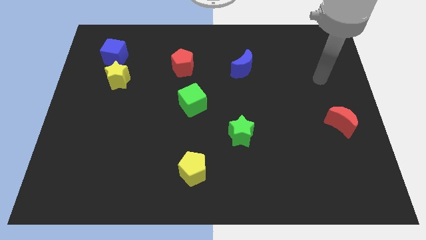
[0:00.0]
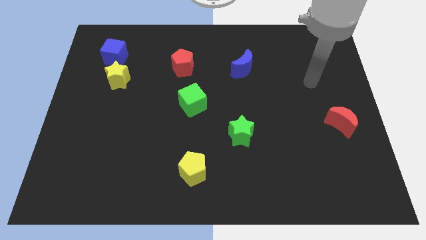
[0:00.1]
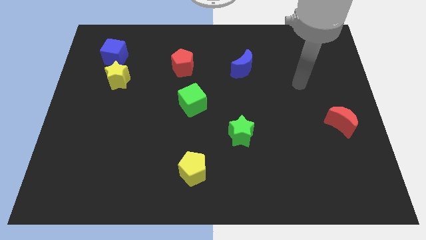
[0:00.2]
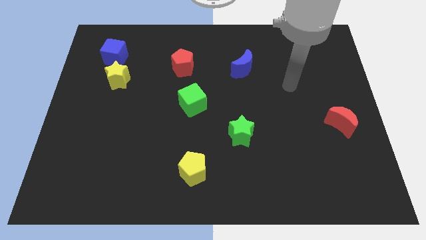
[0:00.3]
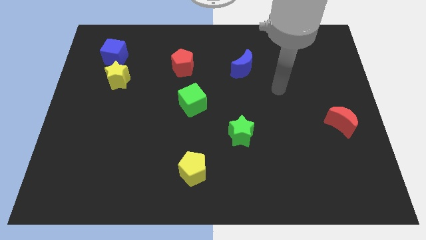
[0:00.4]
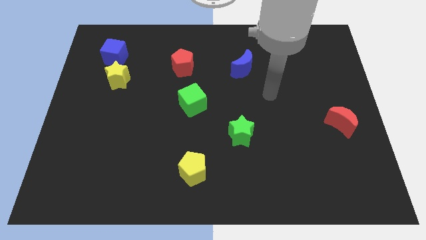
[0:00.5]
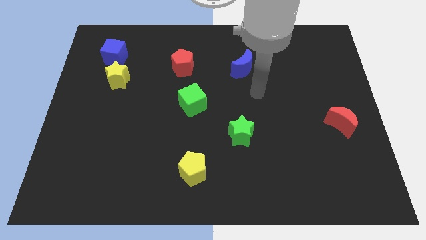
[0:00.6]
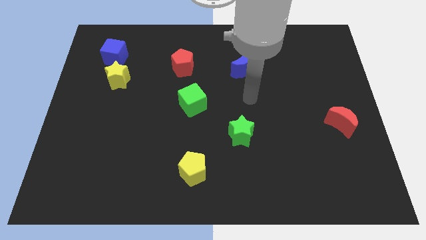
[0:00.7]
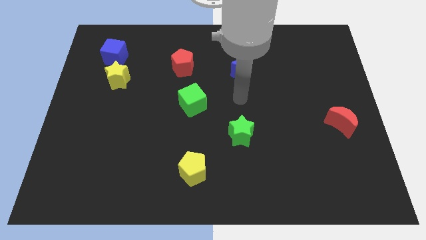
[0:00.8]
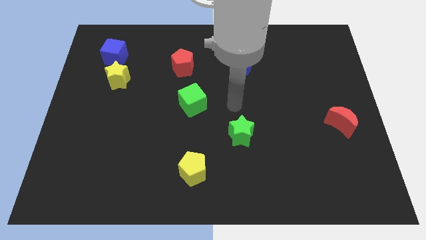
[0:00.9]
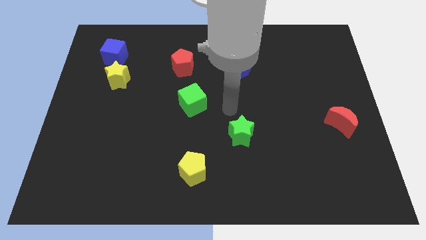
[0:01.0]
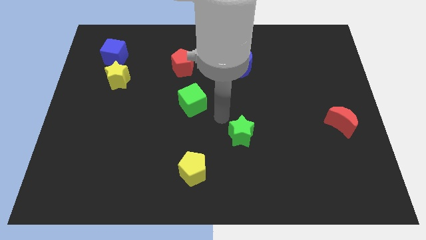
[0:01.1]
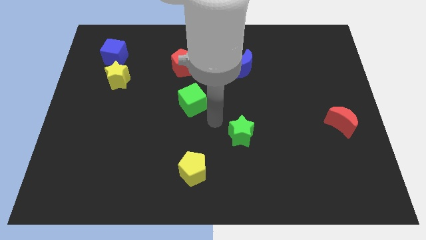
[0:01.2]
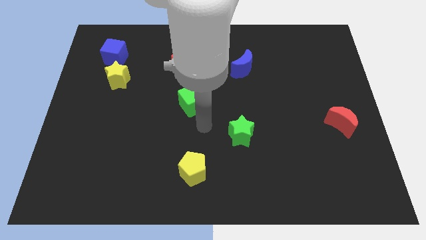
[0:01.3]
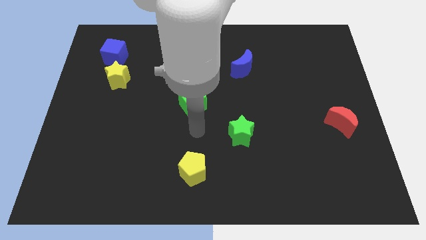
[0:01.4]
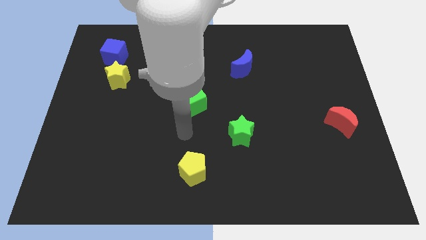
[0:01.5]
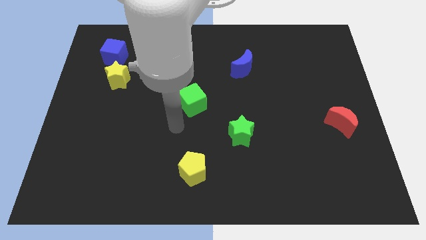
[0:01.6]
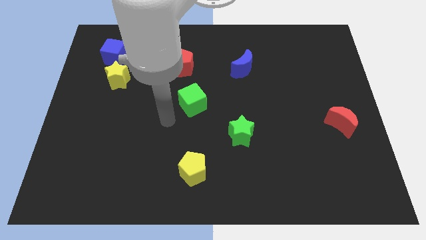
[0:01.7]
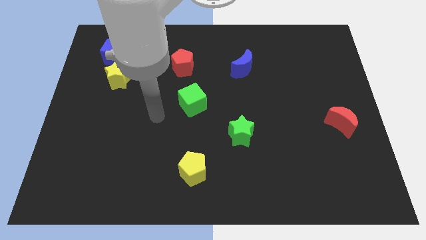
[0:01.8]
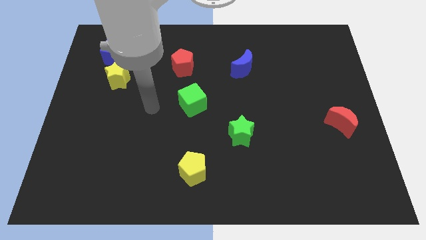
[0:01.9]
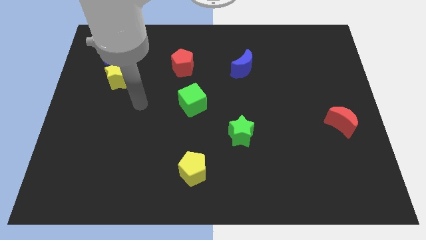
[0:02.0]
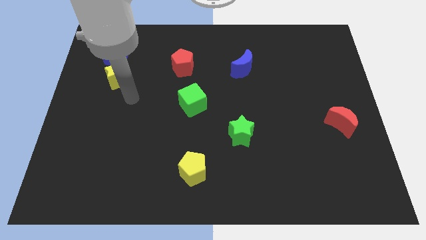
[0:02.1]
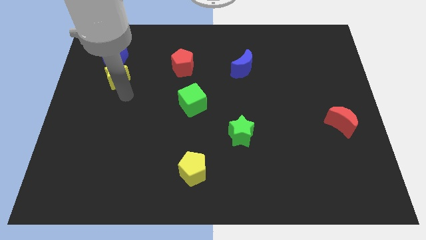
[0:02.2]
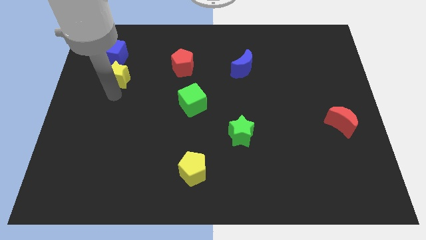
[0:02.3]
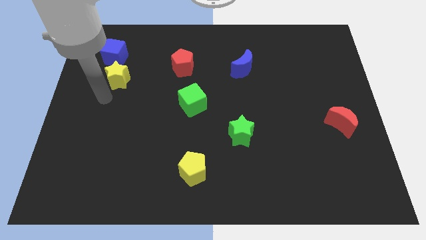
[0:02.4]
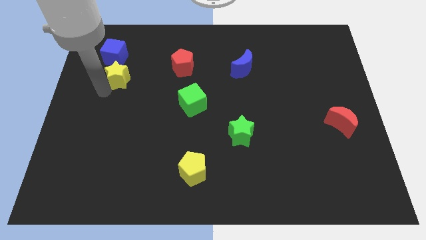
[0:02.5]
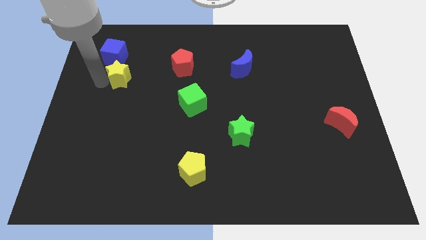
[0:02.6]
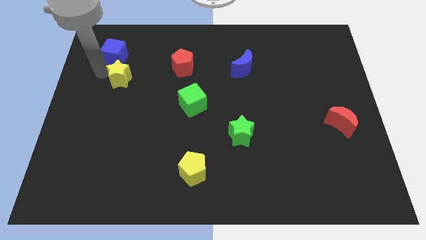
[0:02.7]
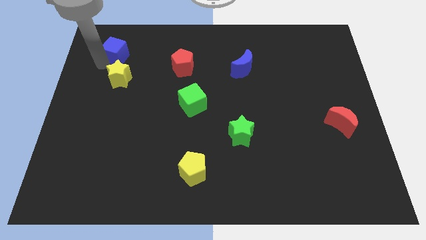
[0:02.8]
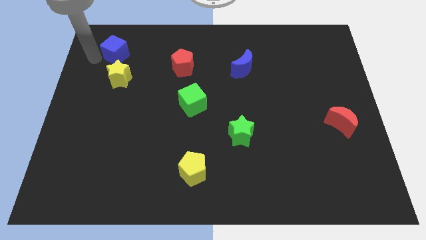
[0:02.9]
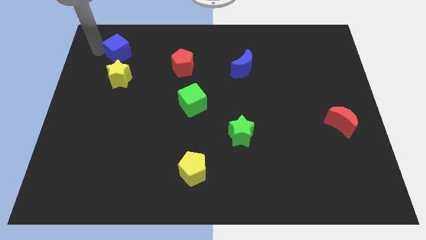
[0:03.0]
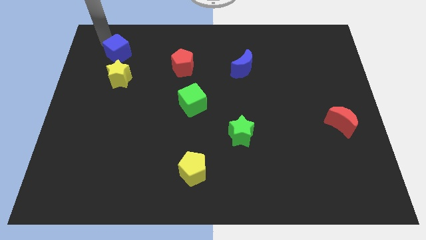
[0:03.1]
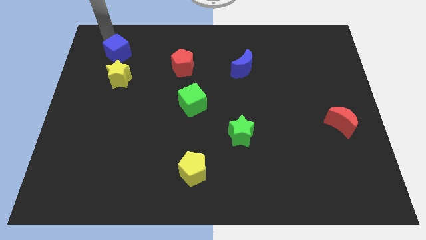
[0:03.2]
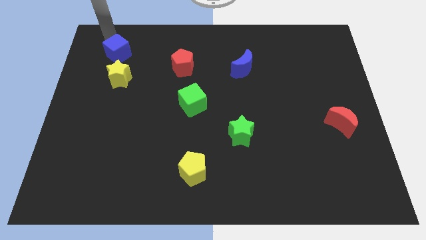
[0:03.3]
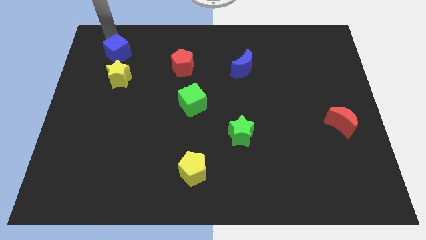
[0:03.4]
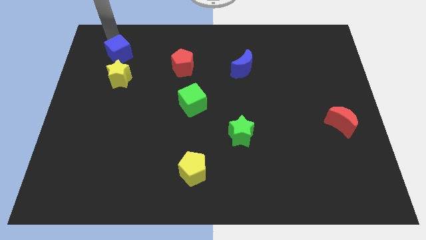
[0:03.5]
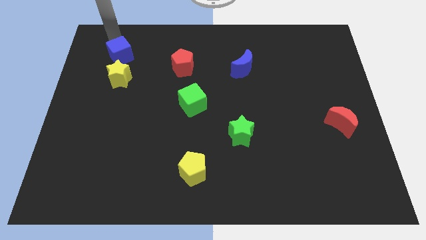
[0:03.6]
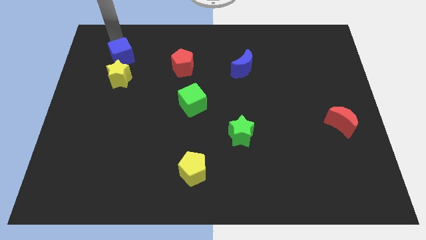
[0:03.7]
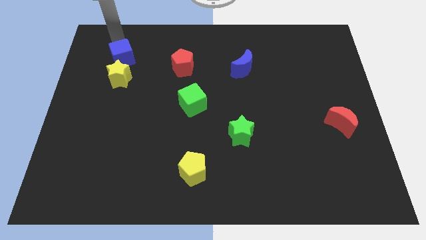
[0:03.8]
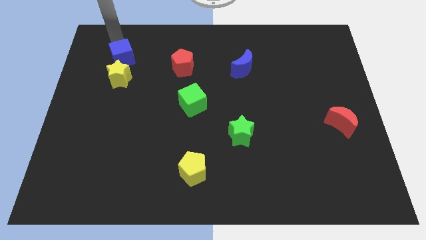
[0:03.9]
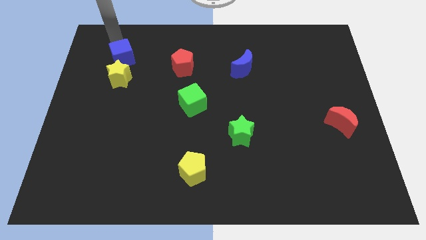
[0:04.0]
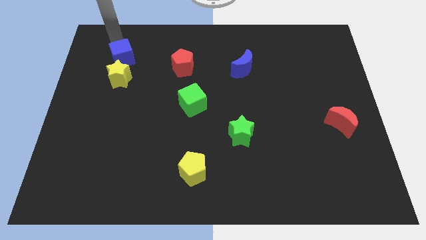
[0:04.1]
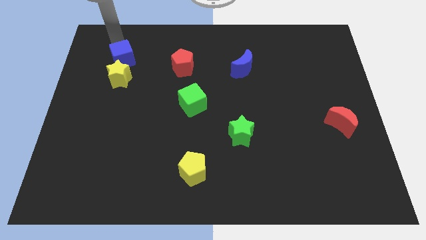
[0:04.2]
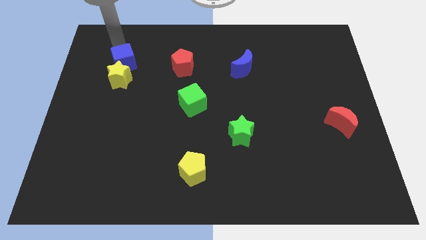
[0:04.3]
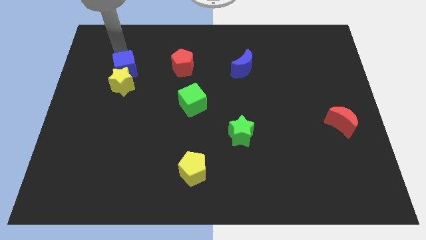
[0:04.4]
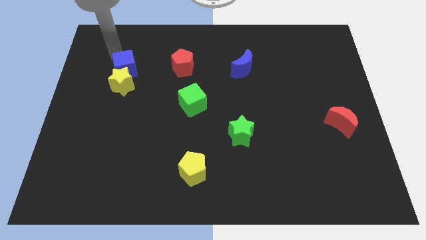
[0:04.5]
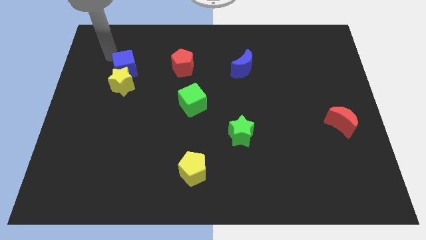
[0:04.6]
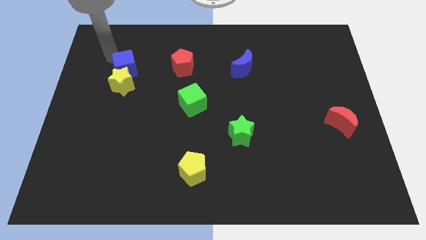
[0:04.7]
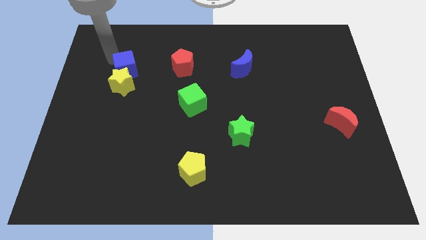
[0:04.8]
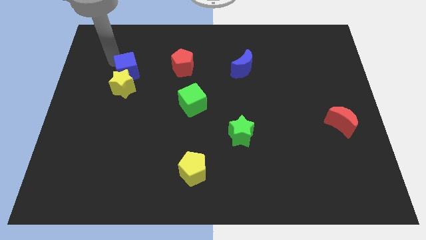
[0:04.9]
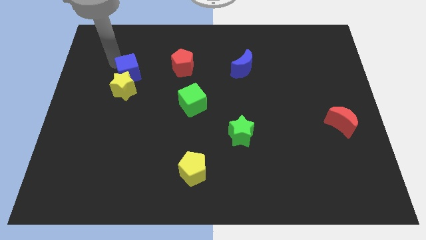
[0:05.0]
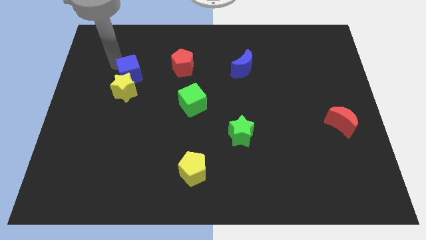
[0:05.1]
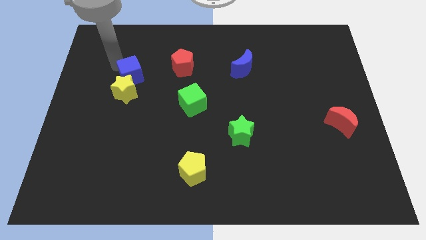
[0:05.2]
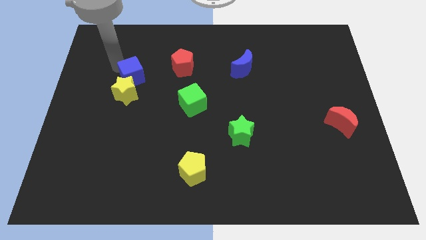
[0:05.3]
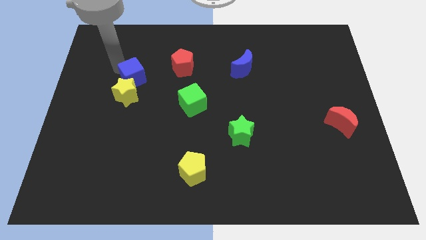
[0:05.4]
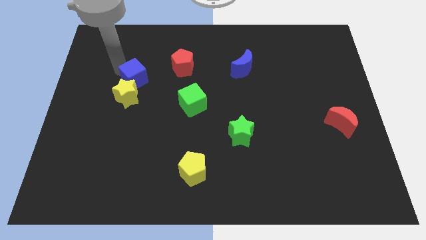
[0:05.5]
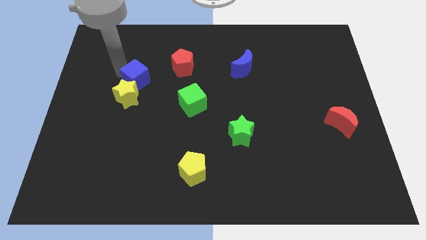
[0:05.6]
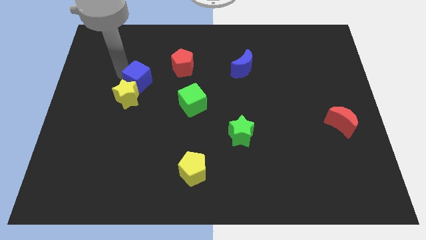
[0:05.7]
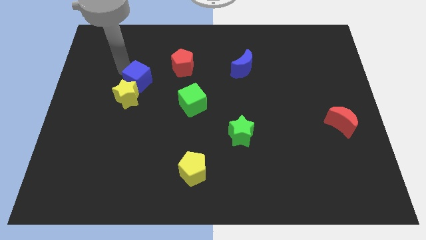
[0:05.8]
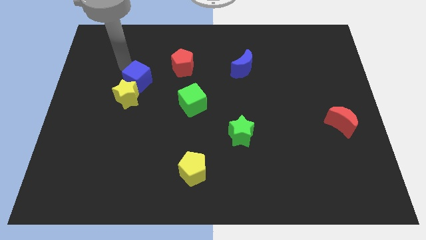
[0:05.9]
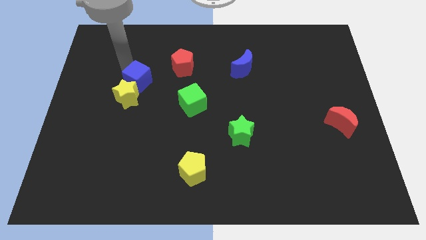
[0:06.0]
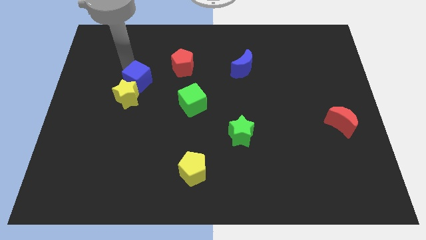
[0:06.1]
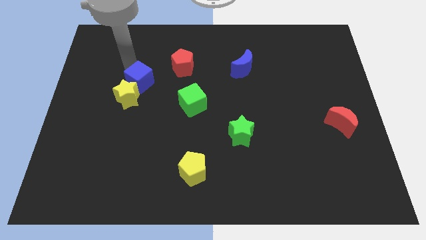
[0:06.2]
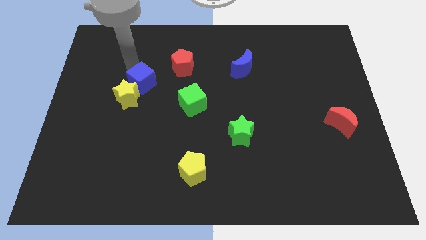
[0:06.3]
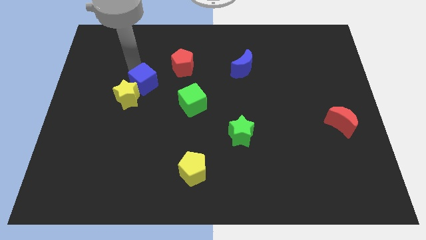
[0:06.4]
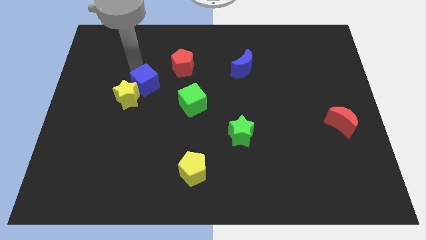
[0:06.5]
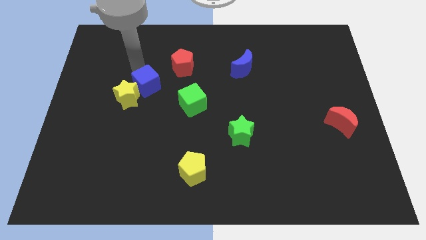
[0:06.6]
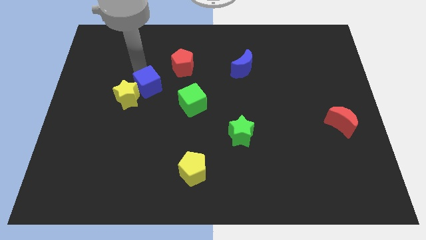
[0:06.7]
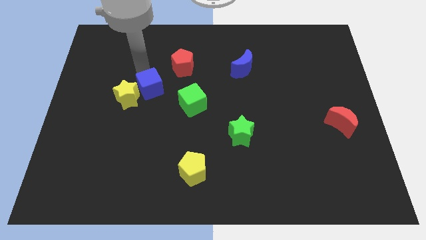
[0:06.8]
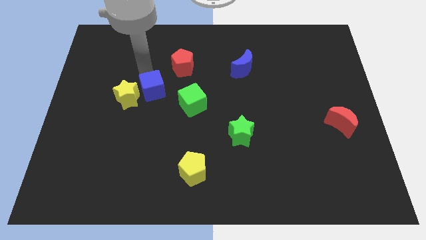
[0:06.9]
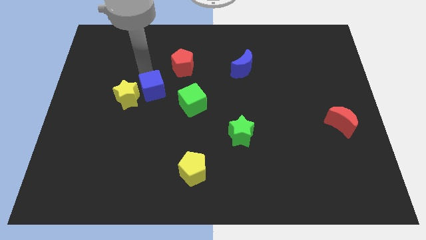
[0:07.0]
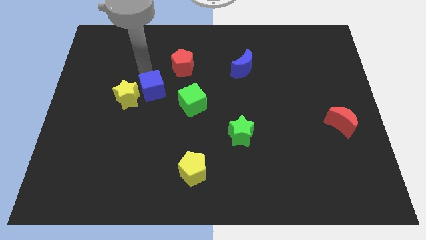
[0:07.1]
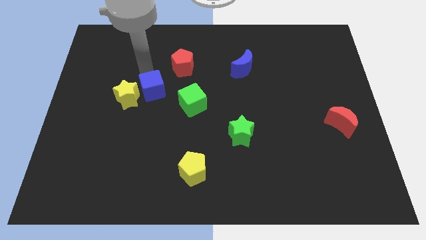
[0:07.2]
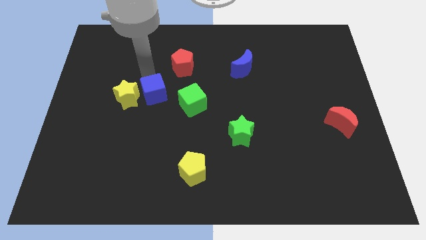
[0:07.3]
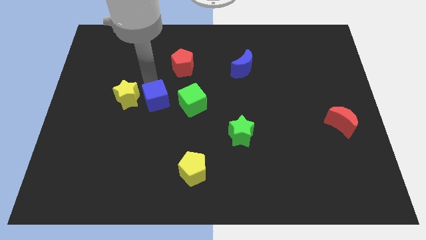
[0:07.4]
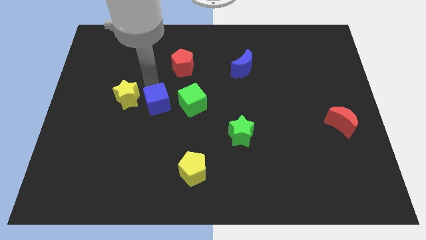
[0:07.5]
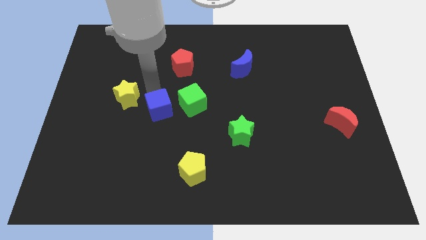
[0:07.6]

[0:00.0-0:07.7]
put the blue cube diagonally down and to the left of the green cube
